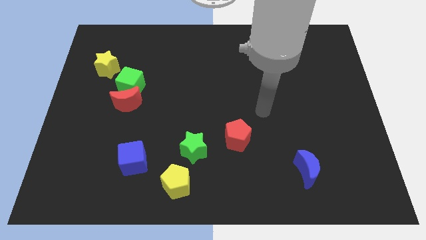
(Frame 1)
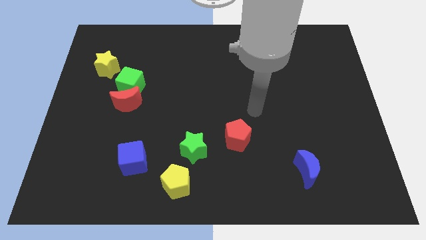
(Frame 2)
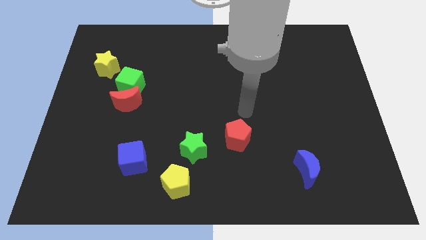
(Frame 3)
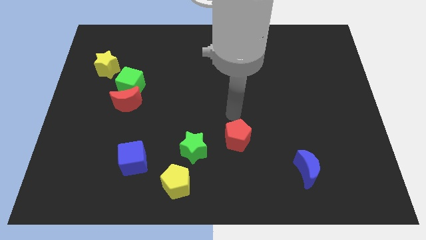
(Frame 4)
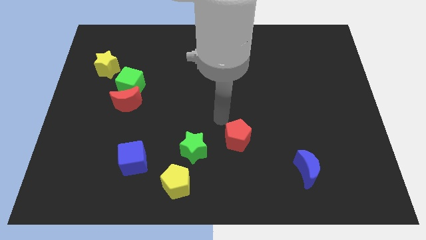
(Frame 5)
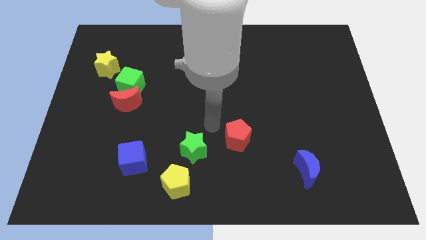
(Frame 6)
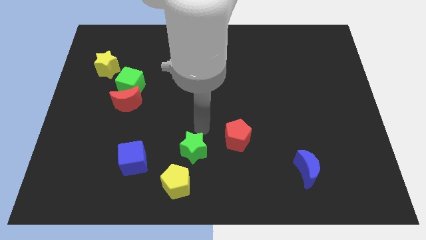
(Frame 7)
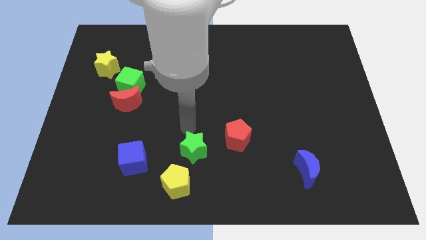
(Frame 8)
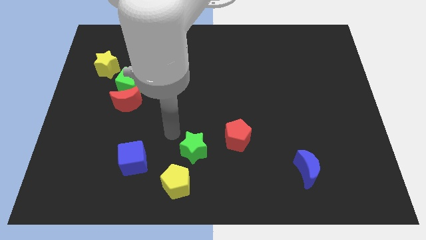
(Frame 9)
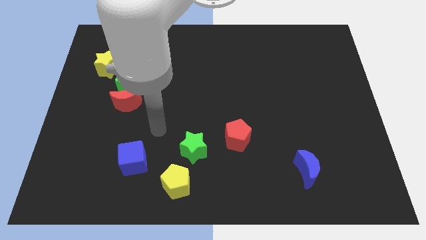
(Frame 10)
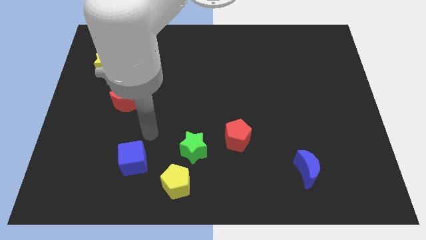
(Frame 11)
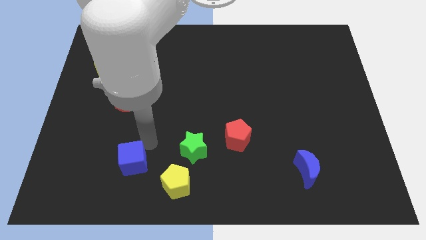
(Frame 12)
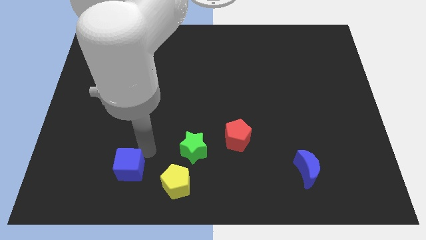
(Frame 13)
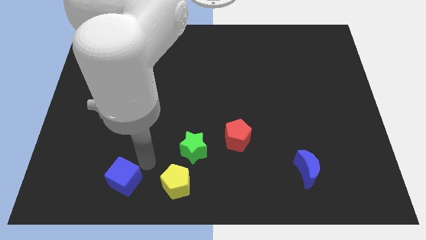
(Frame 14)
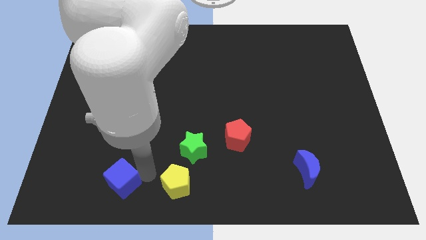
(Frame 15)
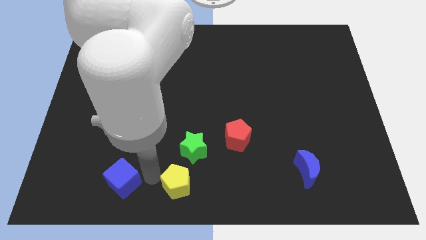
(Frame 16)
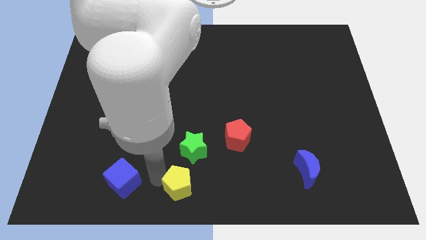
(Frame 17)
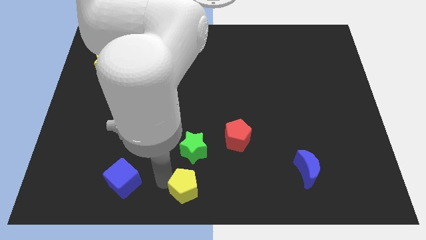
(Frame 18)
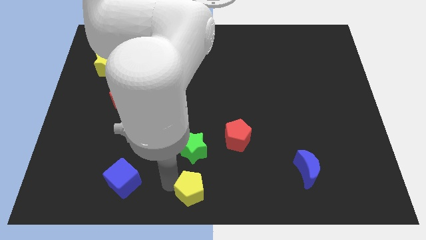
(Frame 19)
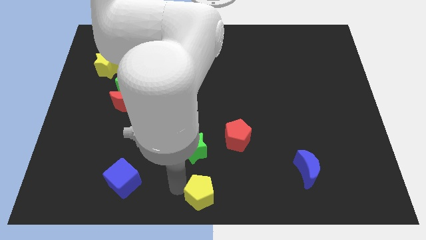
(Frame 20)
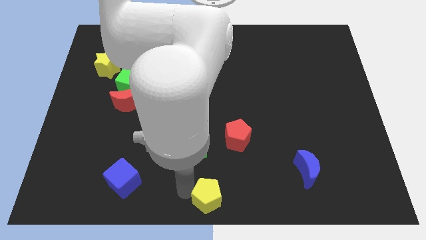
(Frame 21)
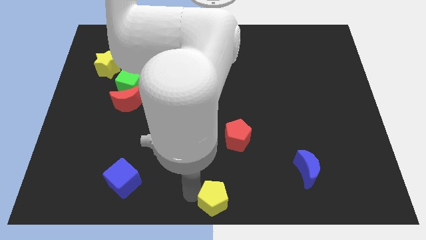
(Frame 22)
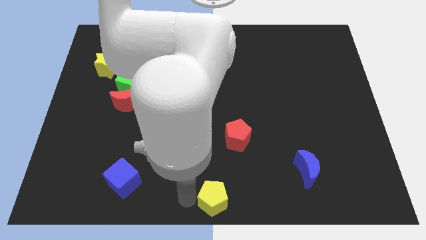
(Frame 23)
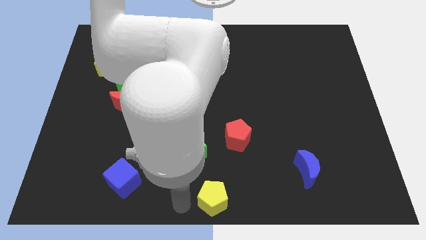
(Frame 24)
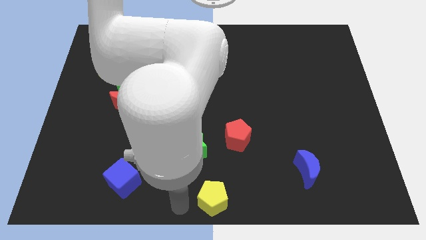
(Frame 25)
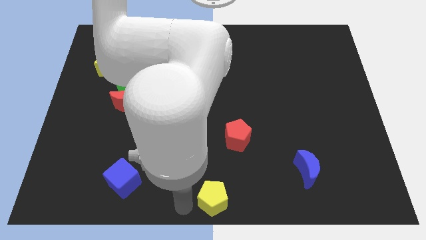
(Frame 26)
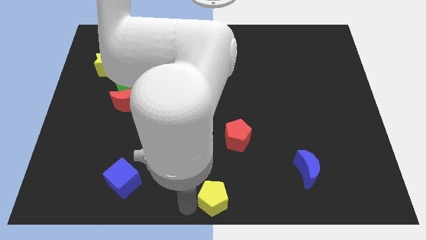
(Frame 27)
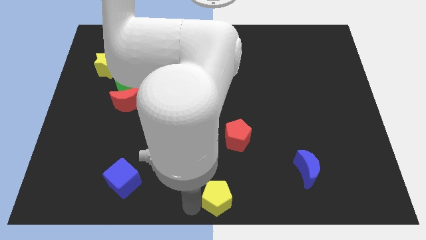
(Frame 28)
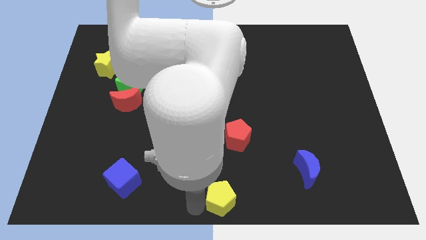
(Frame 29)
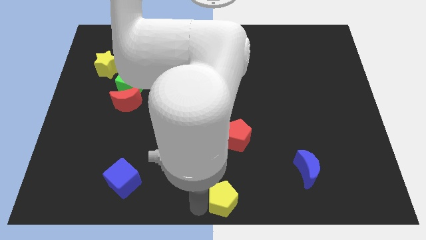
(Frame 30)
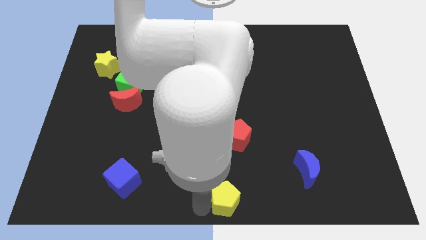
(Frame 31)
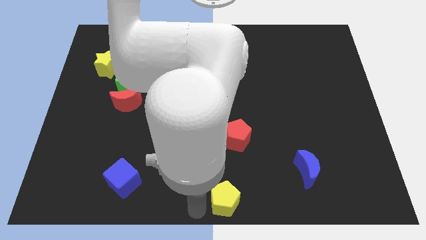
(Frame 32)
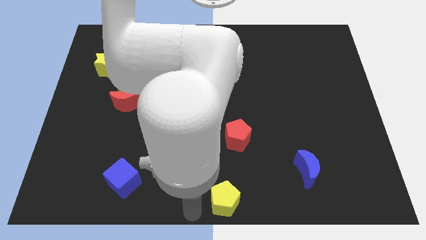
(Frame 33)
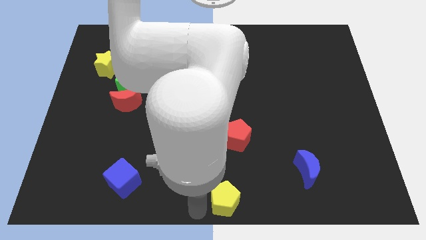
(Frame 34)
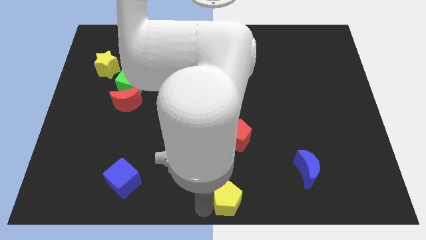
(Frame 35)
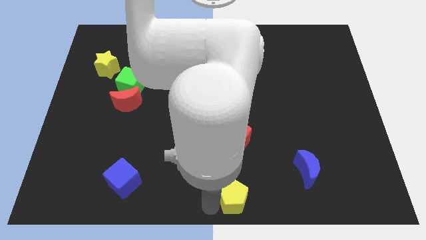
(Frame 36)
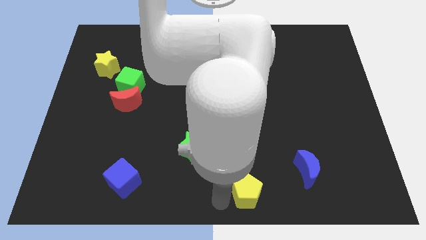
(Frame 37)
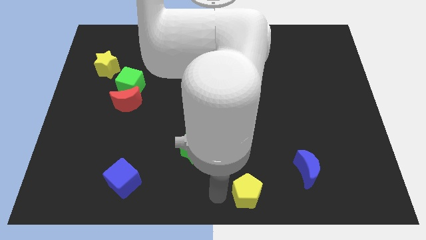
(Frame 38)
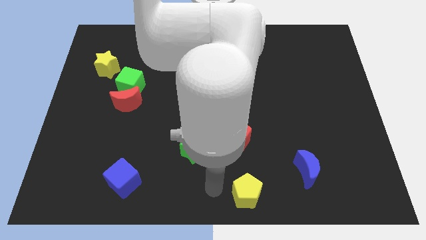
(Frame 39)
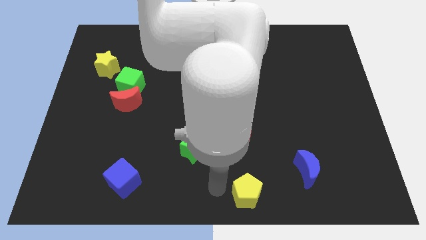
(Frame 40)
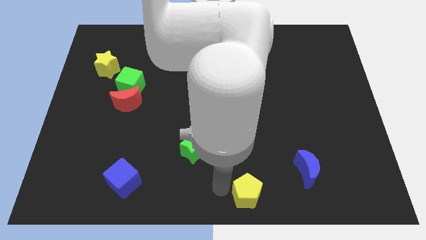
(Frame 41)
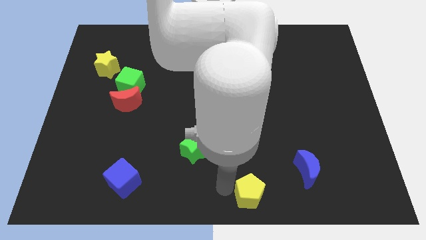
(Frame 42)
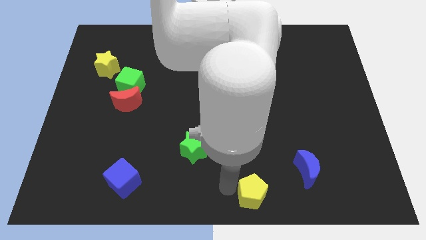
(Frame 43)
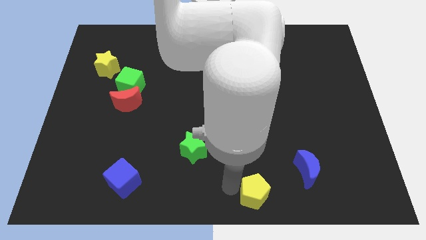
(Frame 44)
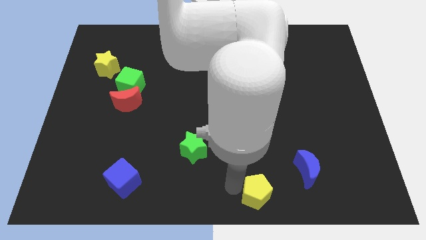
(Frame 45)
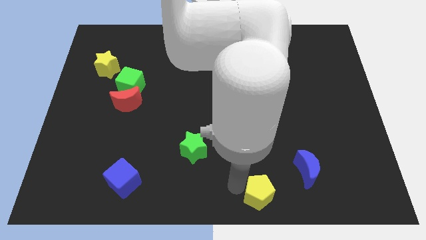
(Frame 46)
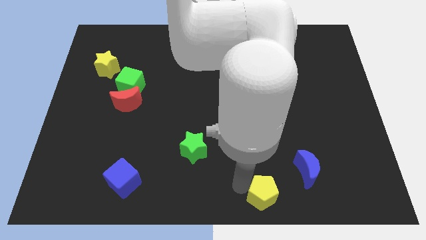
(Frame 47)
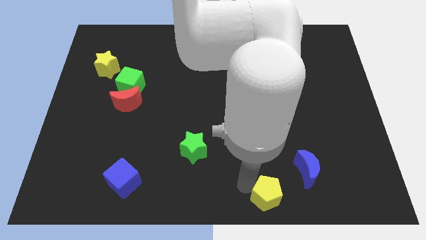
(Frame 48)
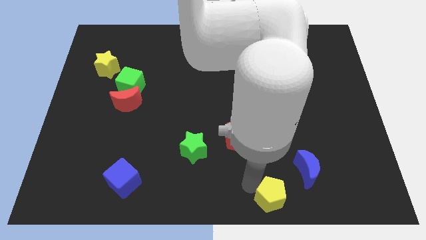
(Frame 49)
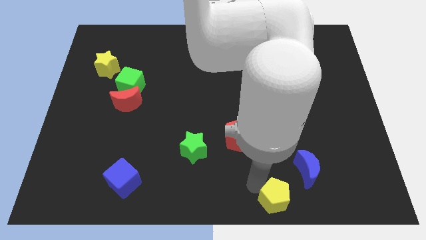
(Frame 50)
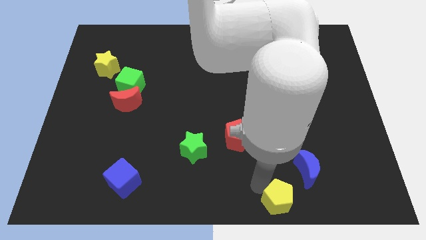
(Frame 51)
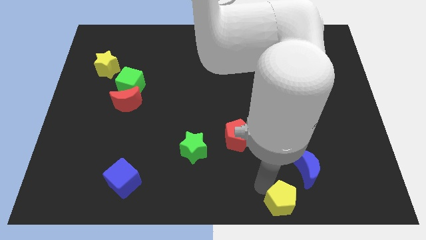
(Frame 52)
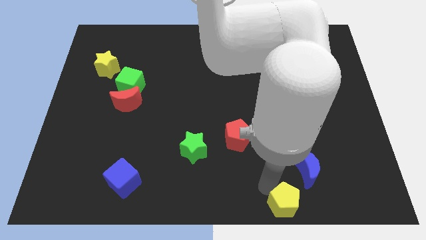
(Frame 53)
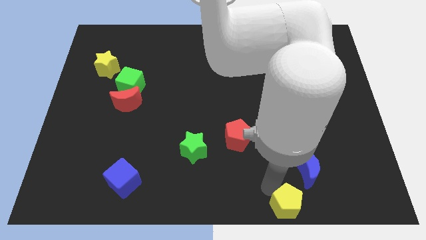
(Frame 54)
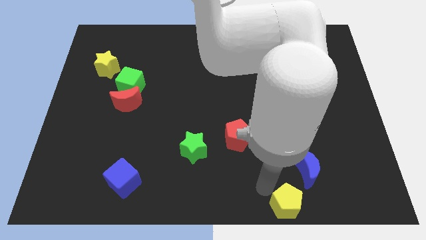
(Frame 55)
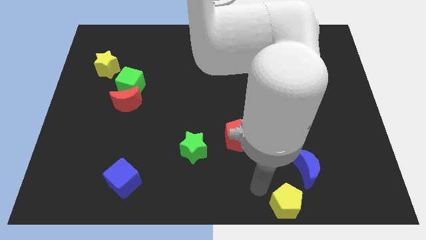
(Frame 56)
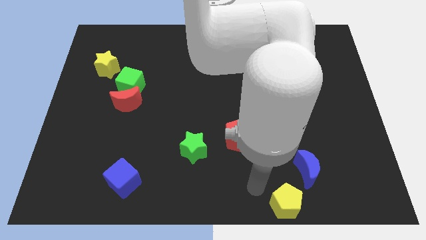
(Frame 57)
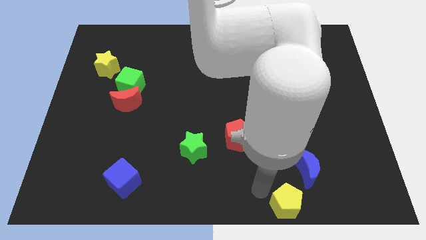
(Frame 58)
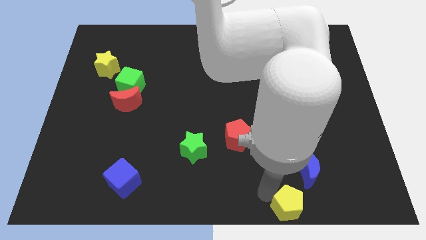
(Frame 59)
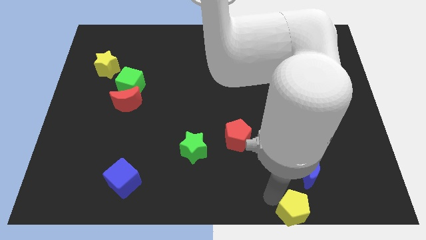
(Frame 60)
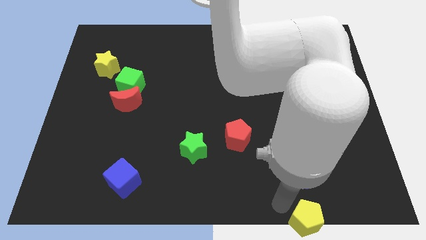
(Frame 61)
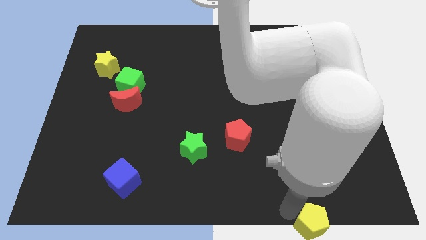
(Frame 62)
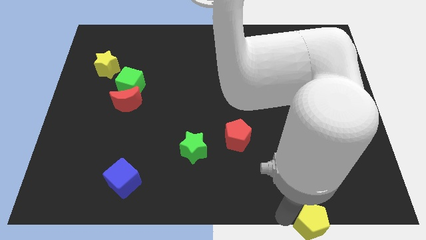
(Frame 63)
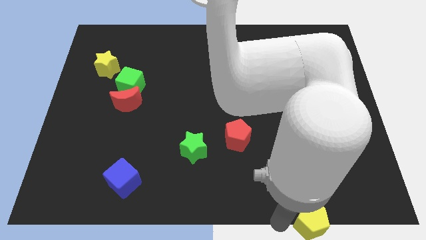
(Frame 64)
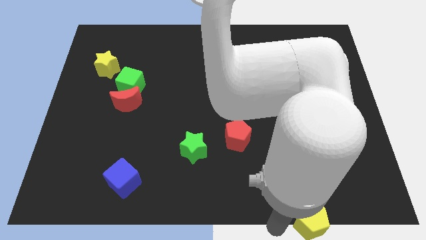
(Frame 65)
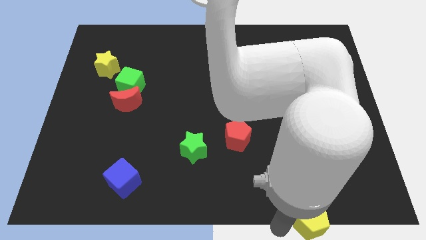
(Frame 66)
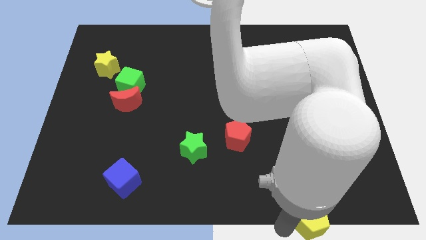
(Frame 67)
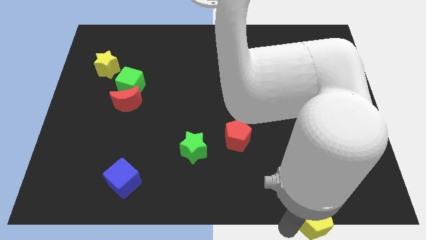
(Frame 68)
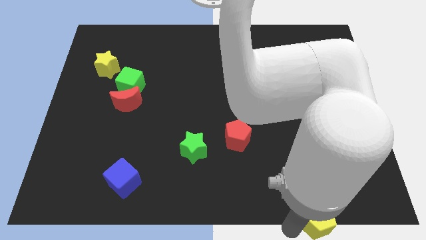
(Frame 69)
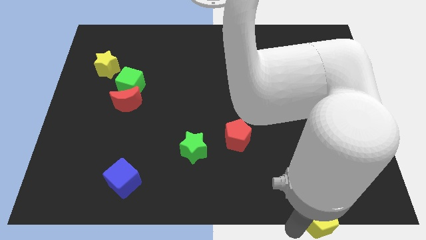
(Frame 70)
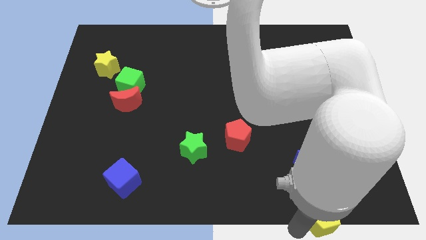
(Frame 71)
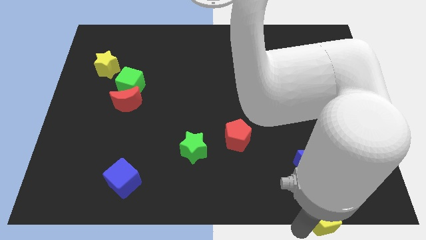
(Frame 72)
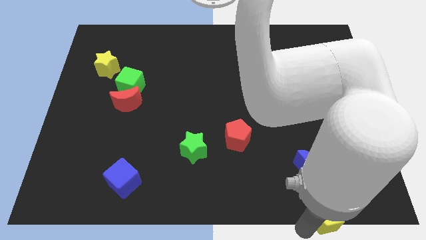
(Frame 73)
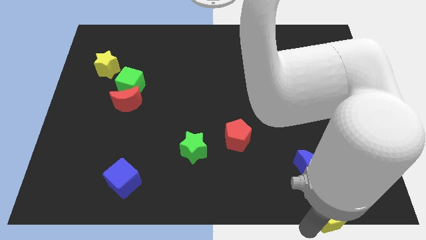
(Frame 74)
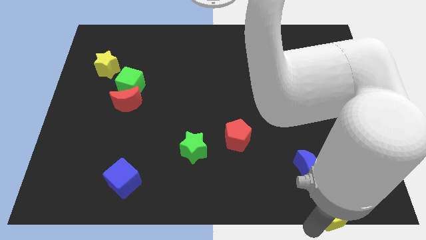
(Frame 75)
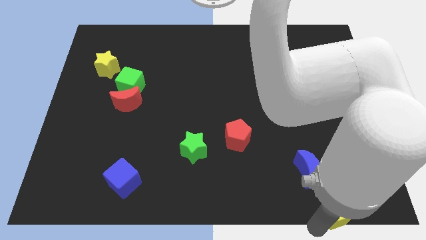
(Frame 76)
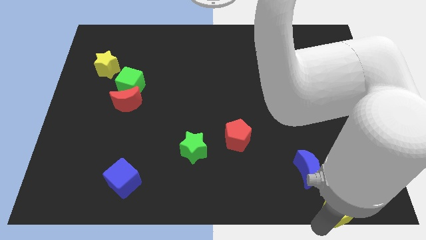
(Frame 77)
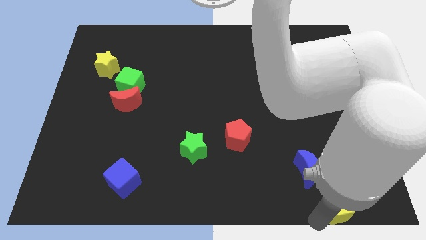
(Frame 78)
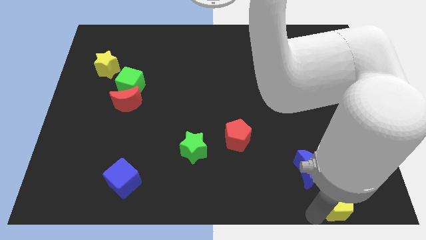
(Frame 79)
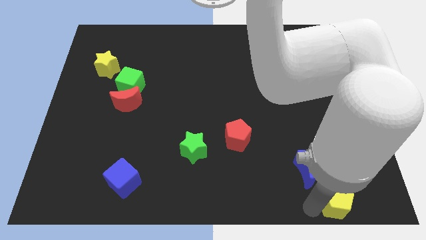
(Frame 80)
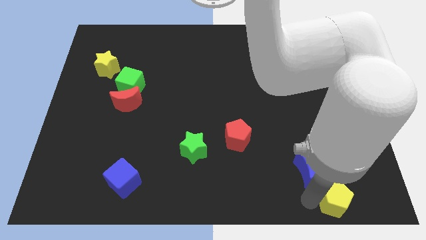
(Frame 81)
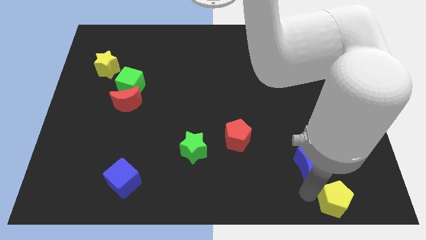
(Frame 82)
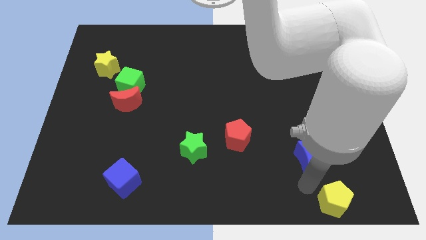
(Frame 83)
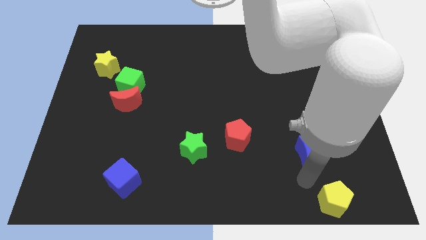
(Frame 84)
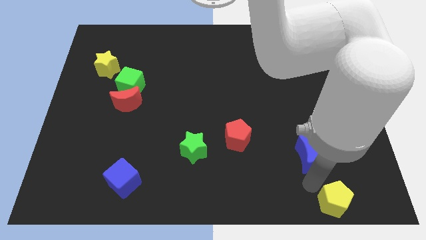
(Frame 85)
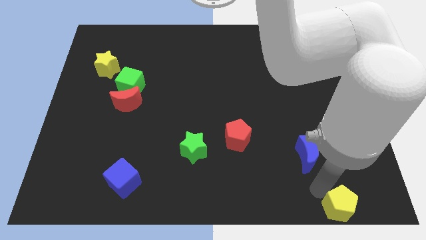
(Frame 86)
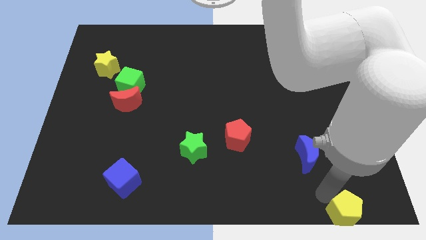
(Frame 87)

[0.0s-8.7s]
move the yellow pentagon to the bottom right corner
